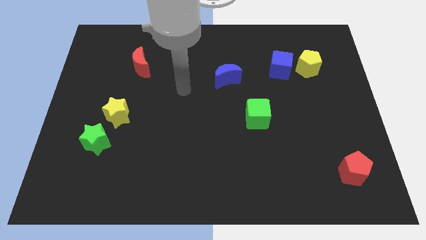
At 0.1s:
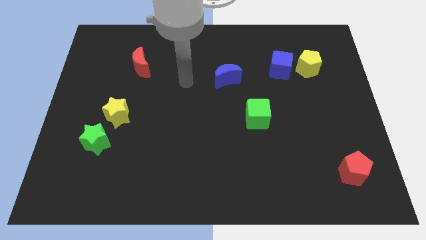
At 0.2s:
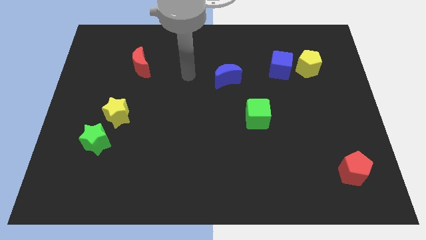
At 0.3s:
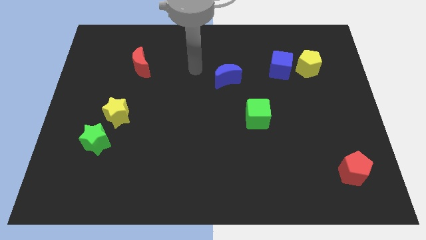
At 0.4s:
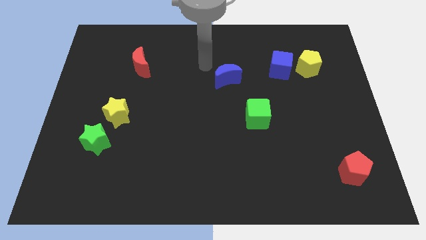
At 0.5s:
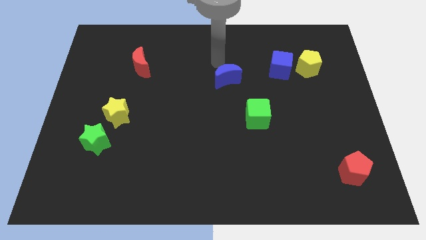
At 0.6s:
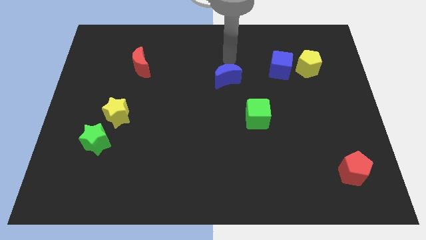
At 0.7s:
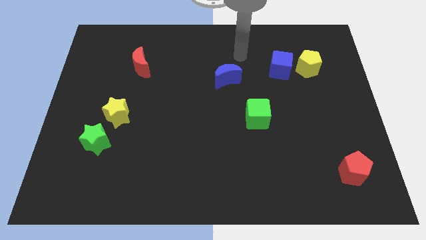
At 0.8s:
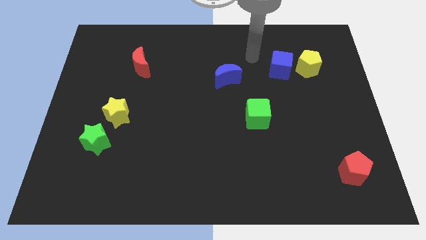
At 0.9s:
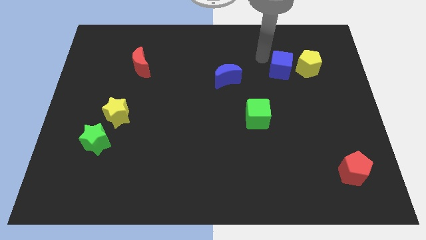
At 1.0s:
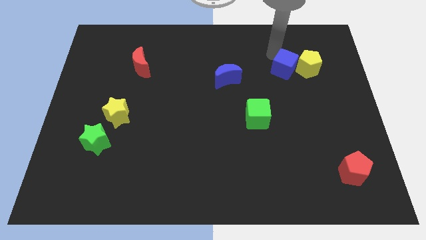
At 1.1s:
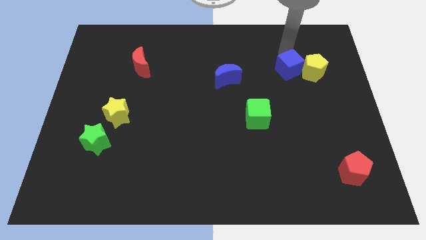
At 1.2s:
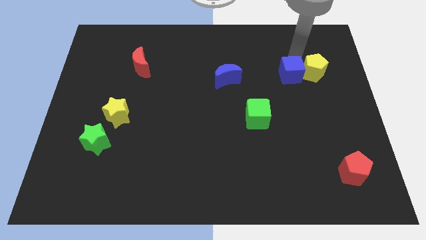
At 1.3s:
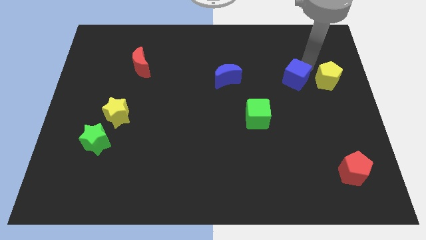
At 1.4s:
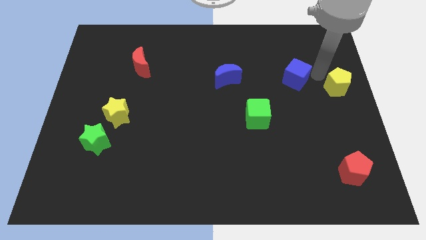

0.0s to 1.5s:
pull the blue cube apart from the yellow pentagon

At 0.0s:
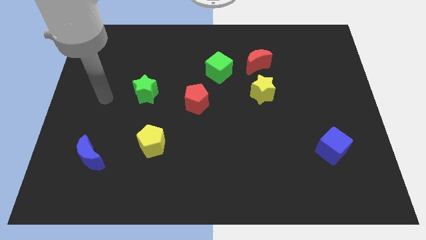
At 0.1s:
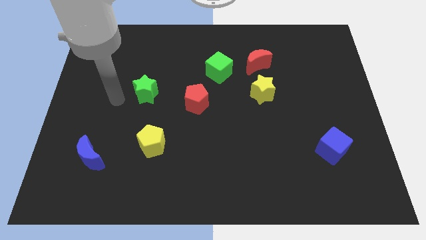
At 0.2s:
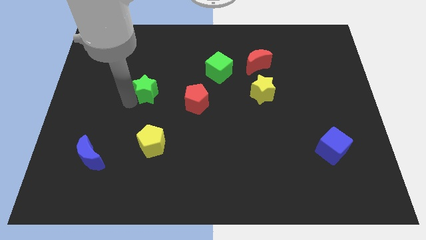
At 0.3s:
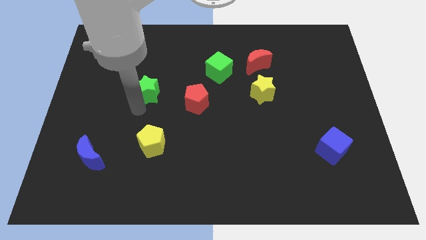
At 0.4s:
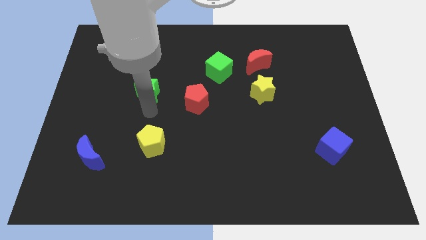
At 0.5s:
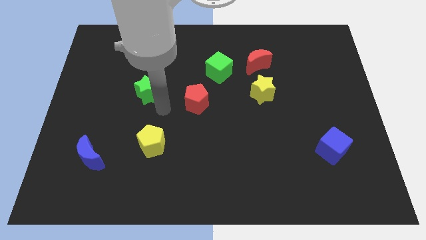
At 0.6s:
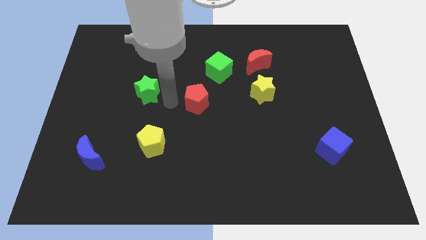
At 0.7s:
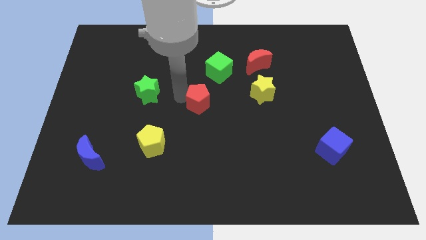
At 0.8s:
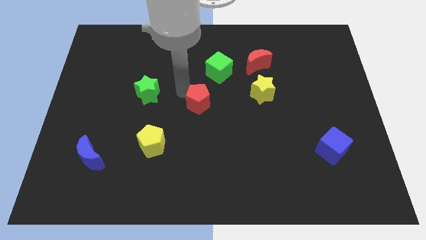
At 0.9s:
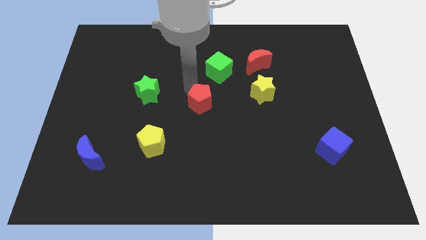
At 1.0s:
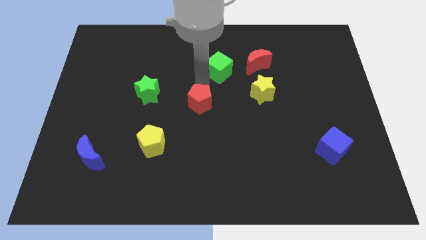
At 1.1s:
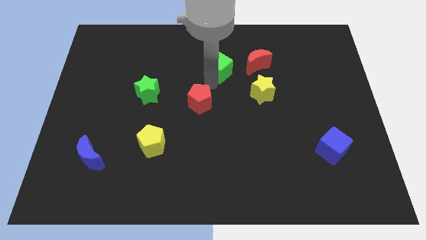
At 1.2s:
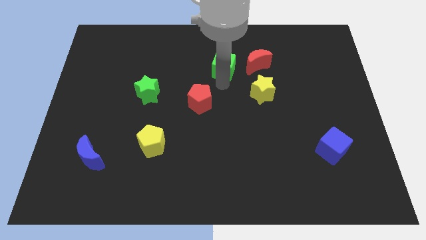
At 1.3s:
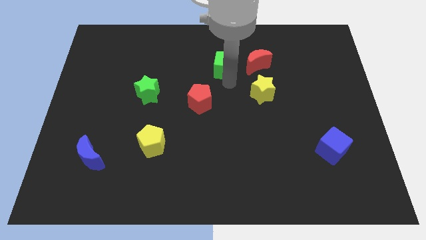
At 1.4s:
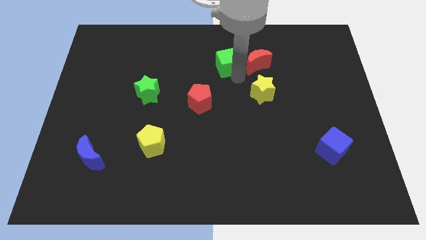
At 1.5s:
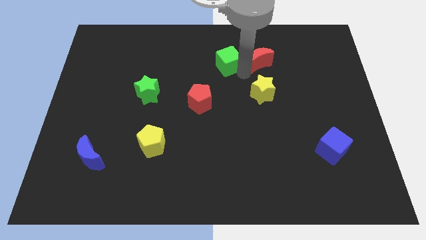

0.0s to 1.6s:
move the yellow star away from the red moon

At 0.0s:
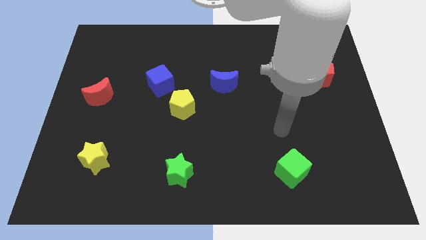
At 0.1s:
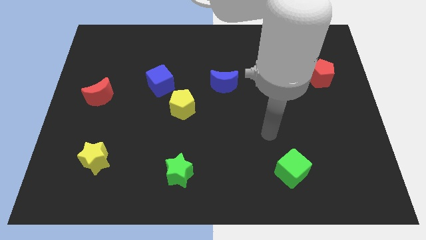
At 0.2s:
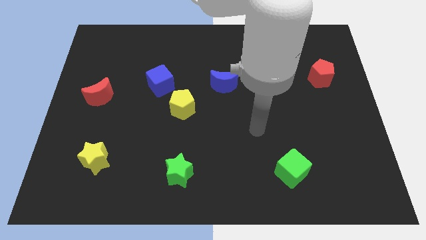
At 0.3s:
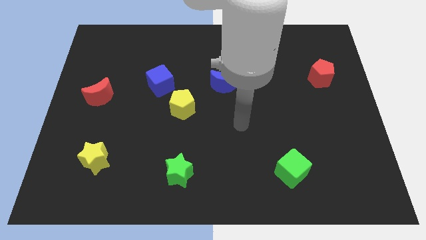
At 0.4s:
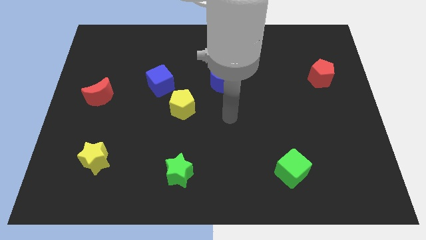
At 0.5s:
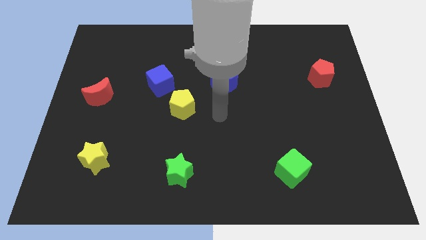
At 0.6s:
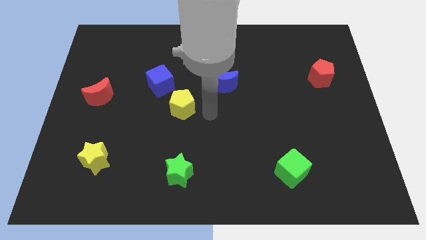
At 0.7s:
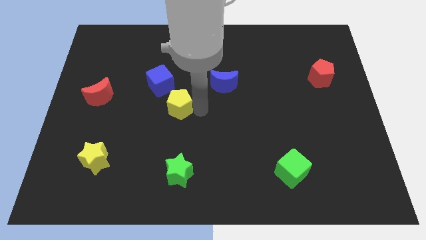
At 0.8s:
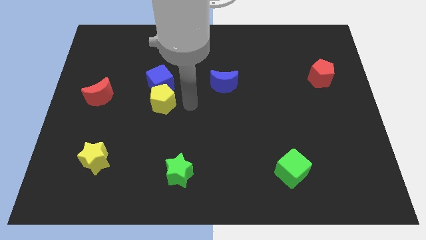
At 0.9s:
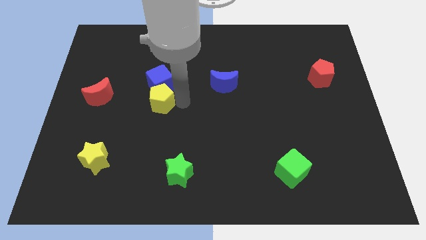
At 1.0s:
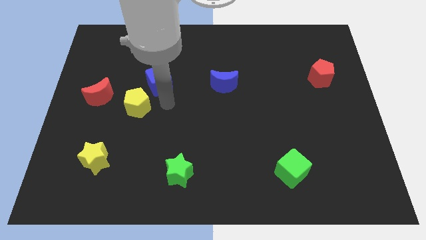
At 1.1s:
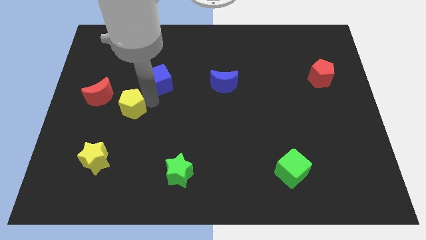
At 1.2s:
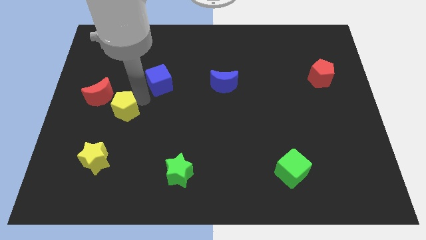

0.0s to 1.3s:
separate the blue cube from the yellow pentagon

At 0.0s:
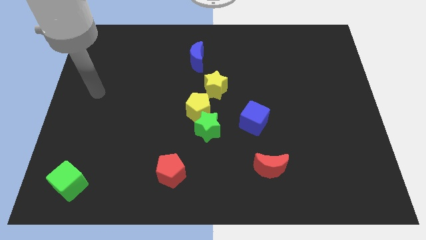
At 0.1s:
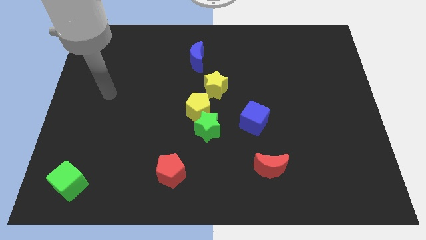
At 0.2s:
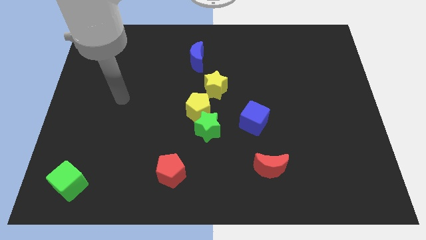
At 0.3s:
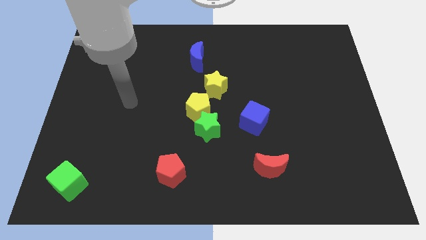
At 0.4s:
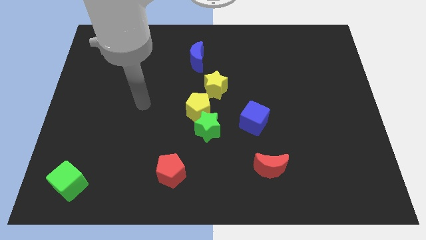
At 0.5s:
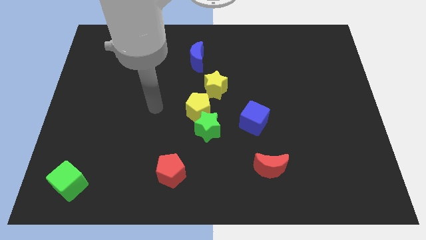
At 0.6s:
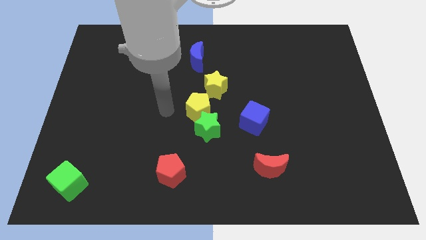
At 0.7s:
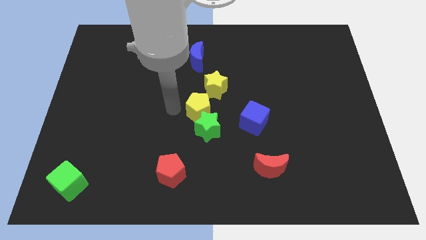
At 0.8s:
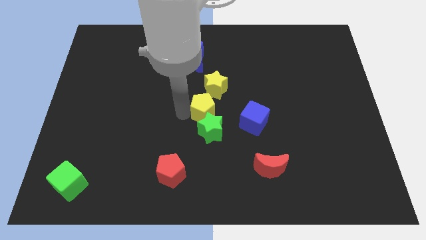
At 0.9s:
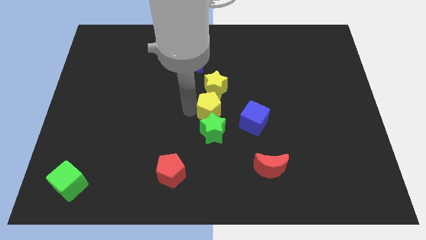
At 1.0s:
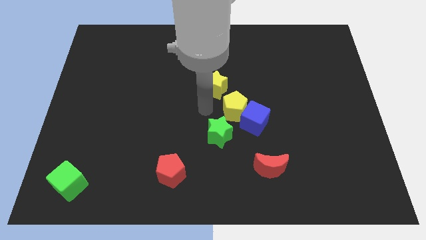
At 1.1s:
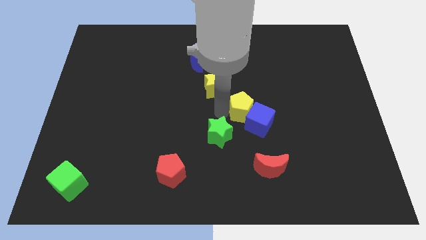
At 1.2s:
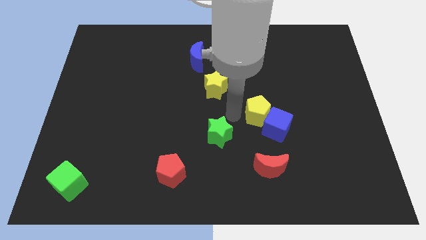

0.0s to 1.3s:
move the green star away from the yellow pentagon

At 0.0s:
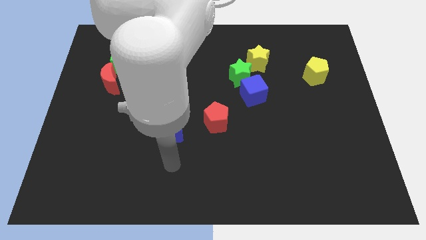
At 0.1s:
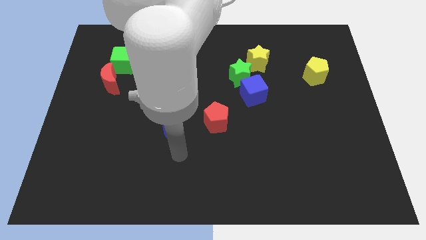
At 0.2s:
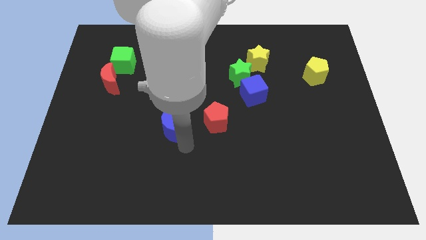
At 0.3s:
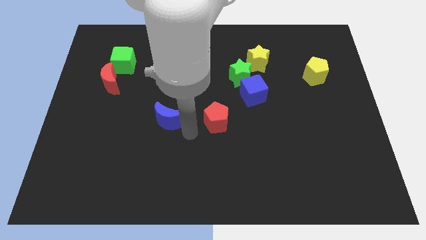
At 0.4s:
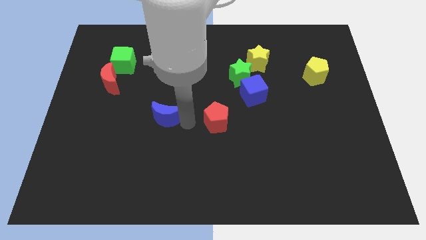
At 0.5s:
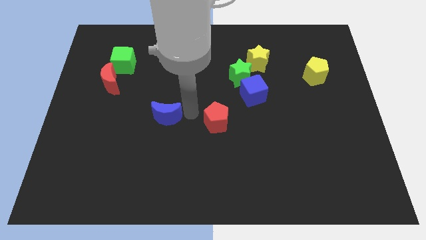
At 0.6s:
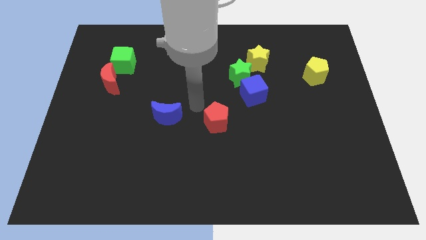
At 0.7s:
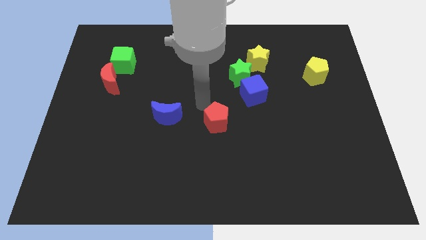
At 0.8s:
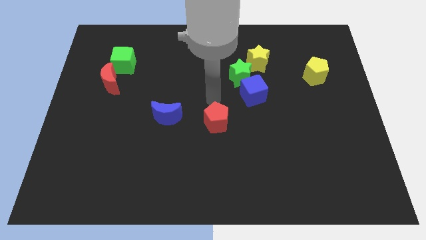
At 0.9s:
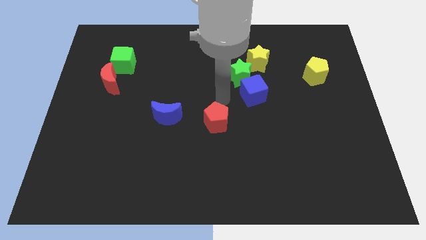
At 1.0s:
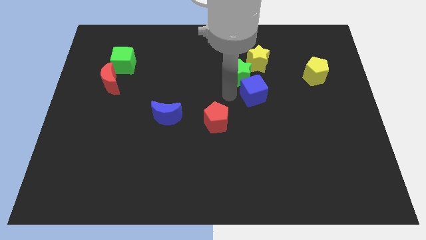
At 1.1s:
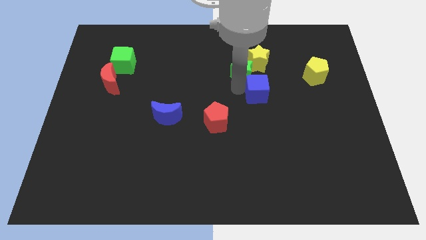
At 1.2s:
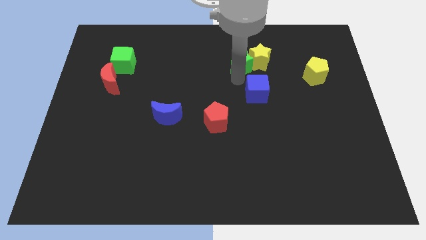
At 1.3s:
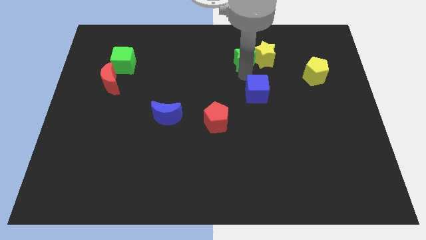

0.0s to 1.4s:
move the blue cube away from the green star

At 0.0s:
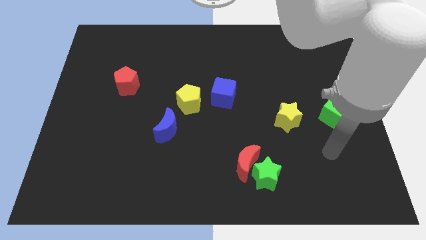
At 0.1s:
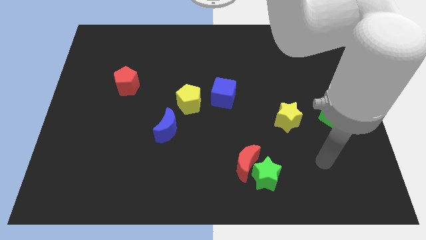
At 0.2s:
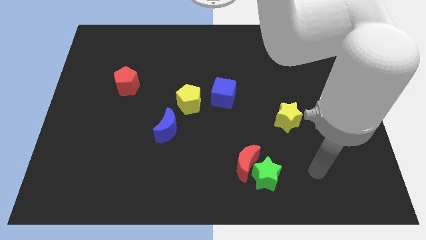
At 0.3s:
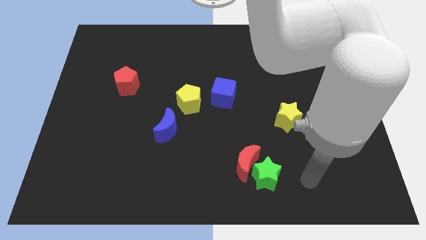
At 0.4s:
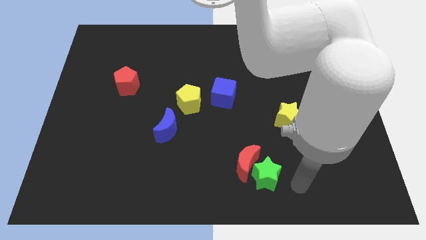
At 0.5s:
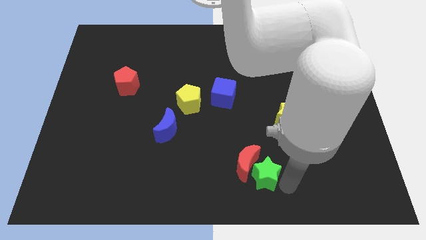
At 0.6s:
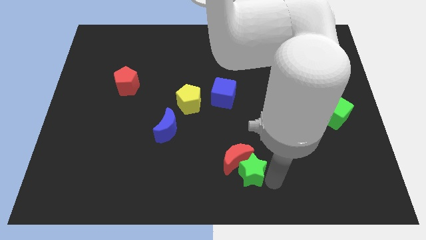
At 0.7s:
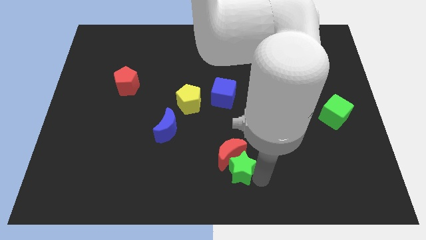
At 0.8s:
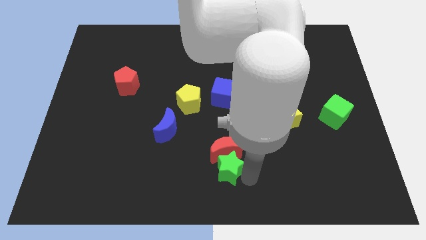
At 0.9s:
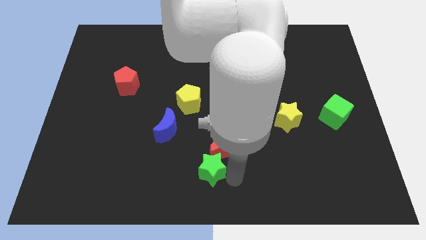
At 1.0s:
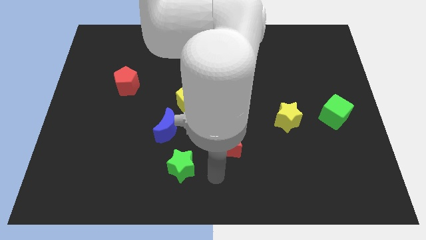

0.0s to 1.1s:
move the red moon away from the green star

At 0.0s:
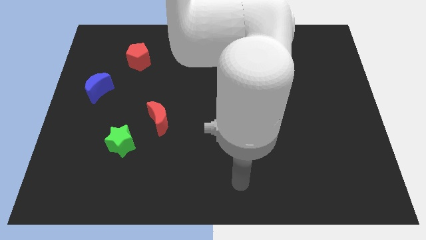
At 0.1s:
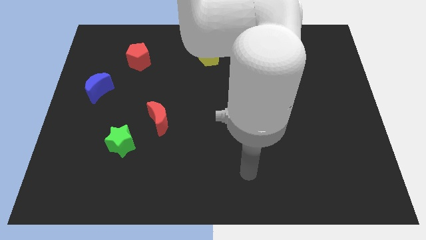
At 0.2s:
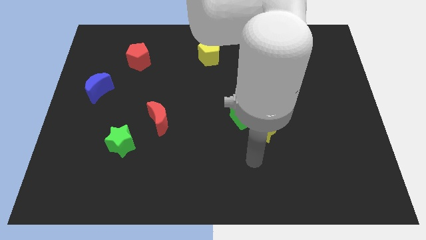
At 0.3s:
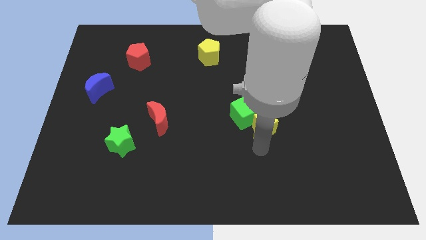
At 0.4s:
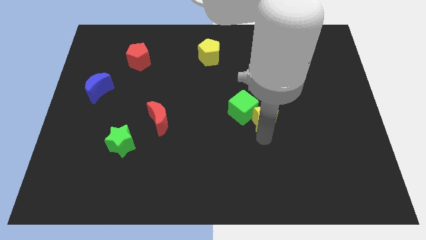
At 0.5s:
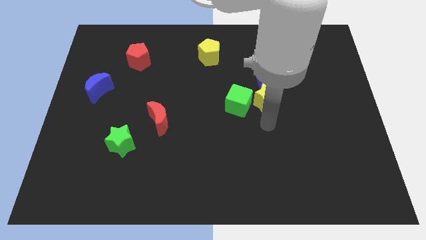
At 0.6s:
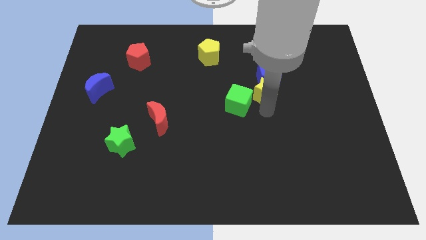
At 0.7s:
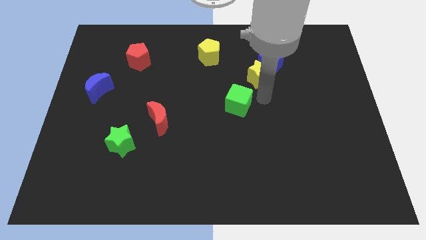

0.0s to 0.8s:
separate the green cube from the yellow star

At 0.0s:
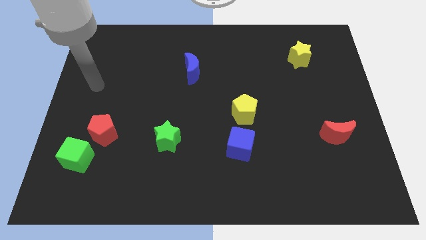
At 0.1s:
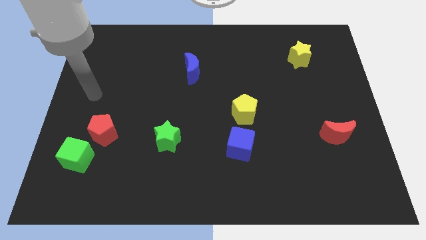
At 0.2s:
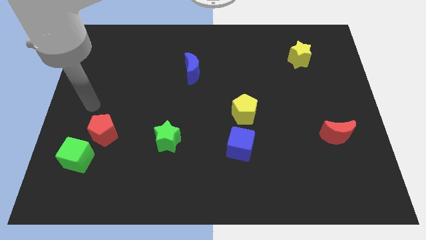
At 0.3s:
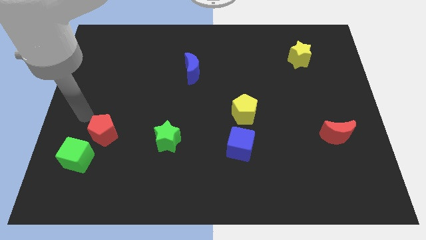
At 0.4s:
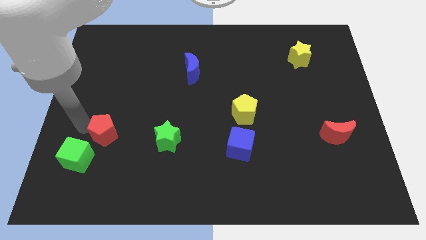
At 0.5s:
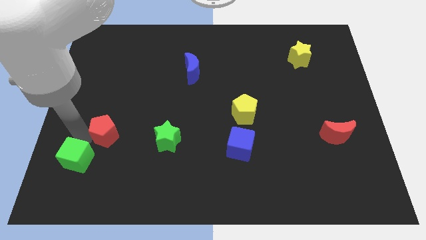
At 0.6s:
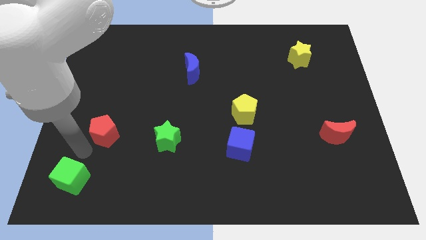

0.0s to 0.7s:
pull the red pentagon apart from the green cube
